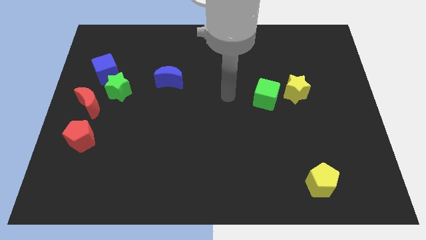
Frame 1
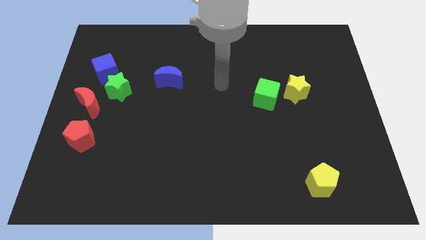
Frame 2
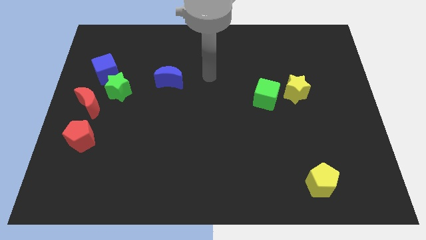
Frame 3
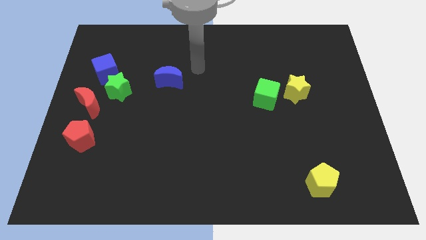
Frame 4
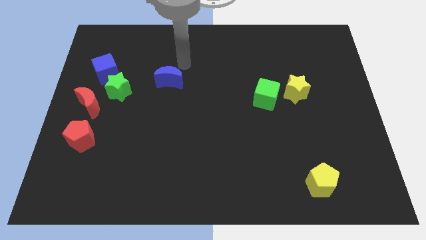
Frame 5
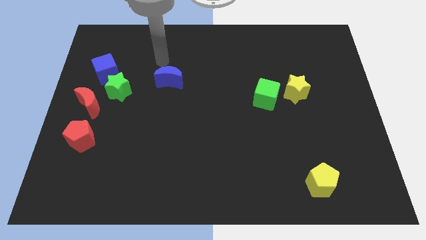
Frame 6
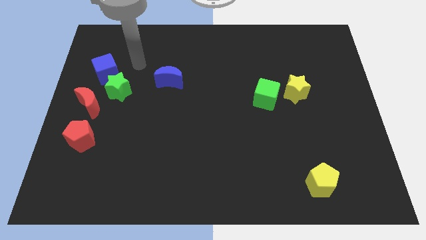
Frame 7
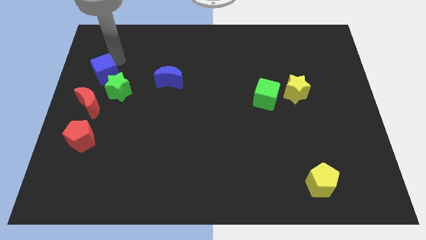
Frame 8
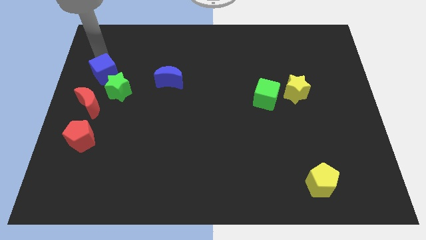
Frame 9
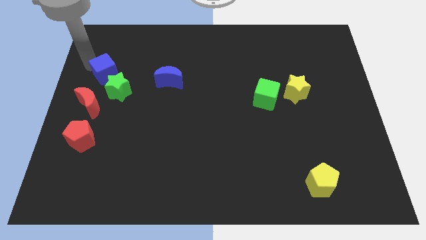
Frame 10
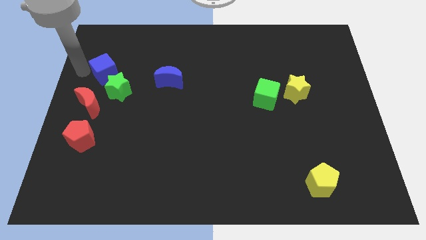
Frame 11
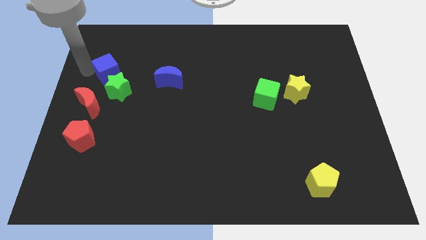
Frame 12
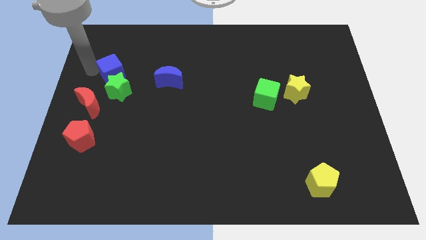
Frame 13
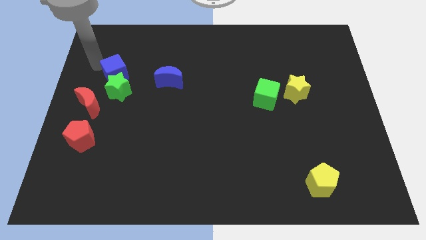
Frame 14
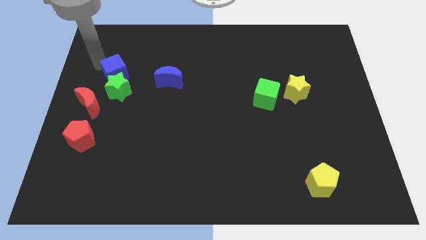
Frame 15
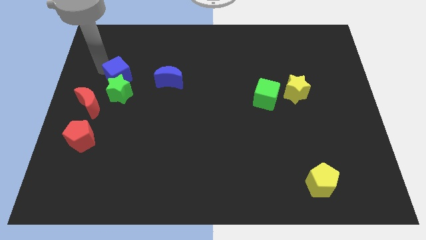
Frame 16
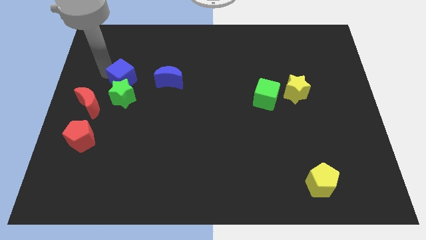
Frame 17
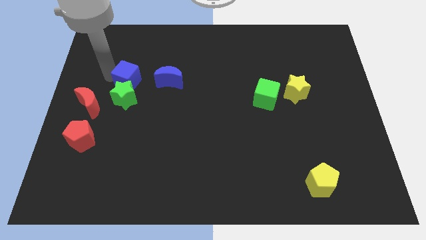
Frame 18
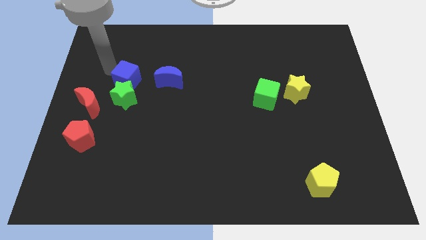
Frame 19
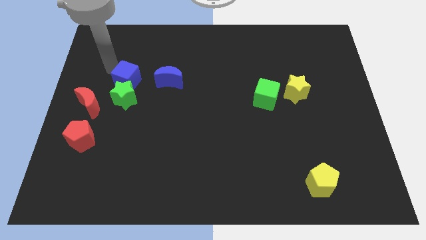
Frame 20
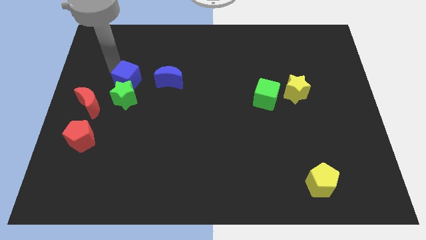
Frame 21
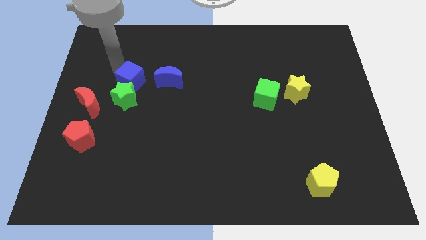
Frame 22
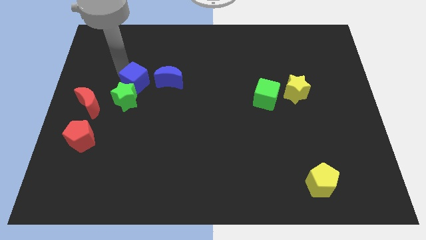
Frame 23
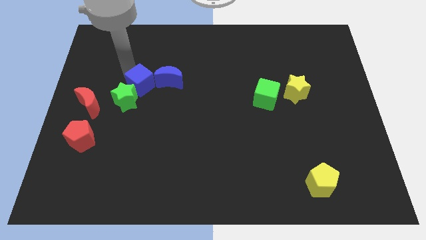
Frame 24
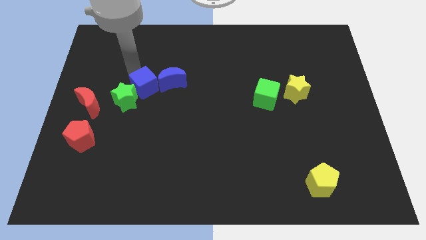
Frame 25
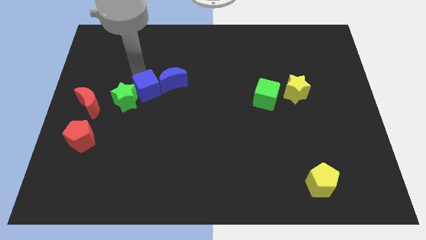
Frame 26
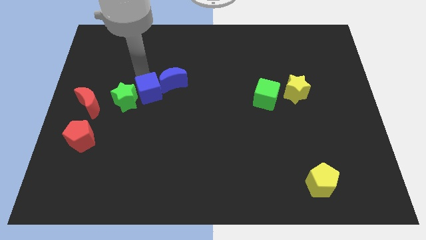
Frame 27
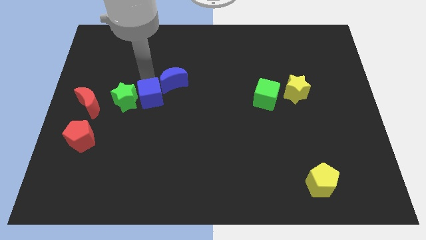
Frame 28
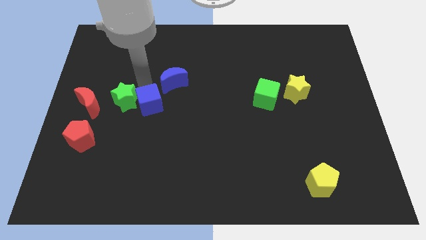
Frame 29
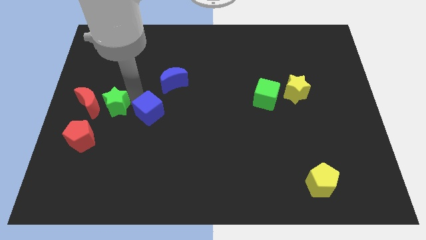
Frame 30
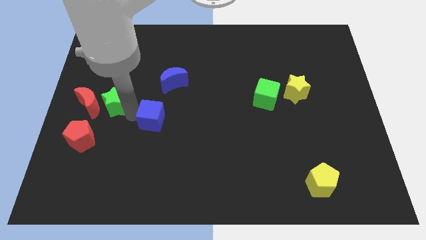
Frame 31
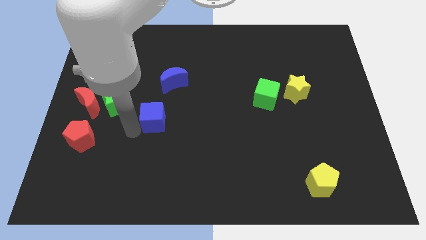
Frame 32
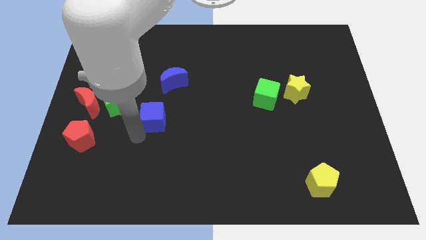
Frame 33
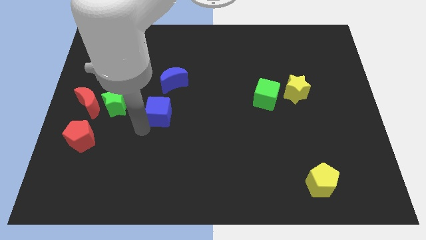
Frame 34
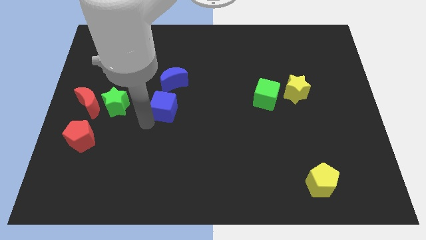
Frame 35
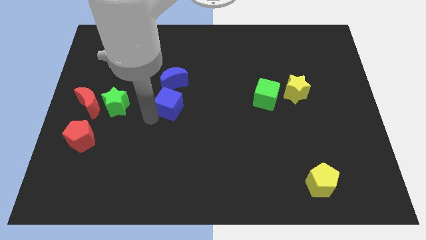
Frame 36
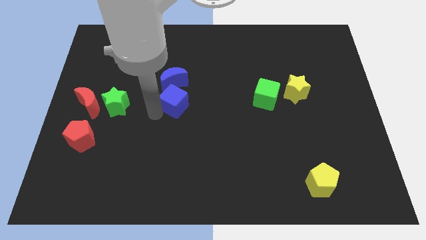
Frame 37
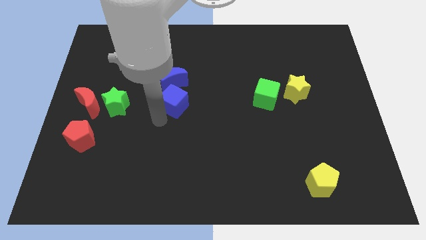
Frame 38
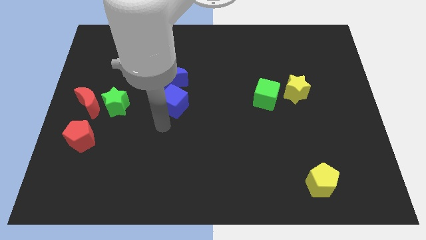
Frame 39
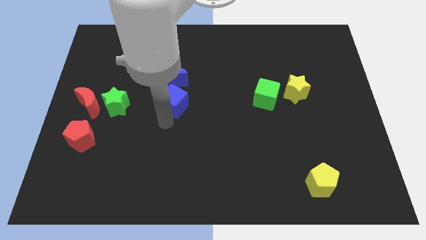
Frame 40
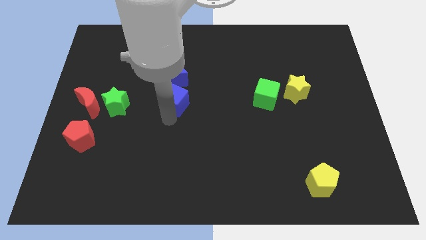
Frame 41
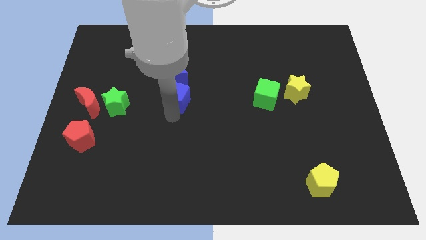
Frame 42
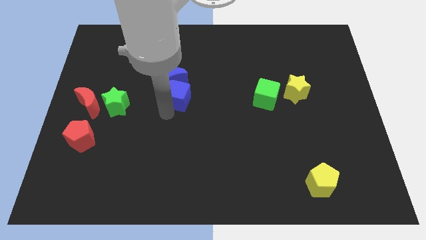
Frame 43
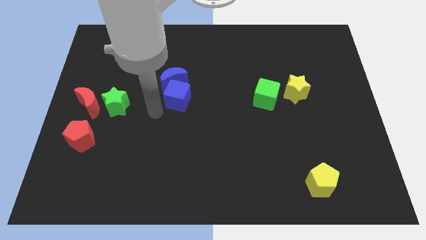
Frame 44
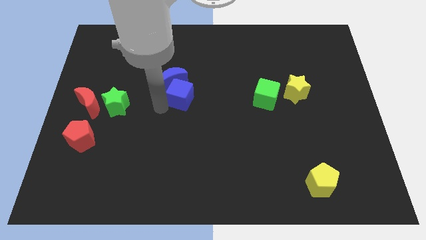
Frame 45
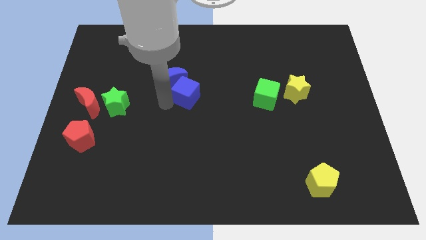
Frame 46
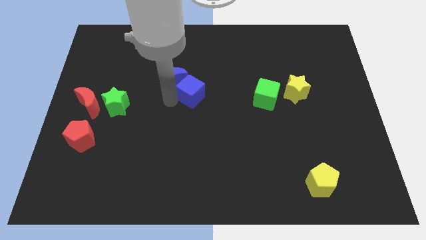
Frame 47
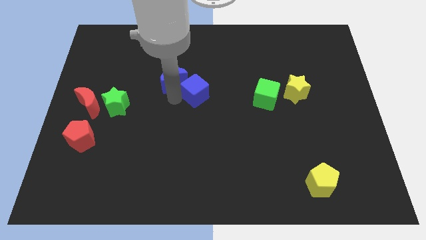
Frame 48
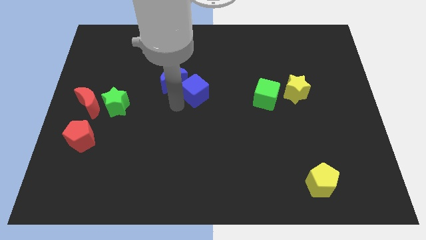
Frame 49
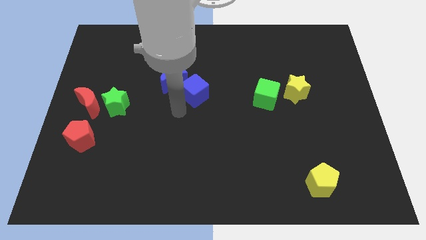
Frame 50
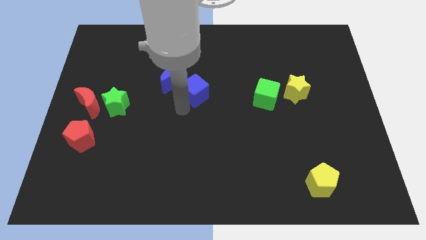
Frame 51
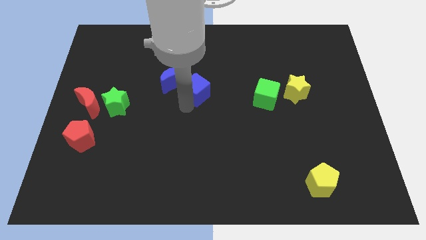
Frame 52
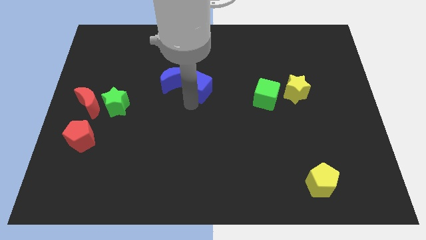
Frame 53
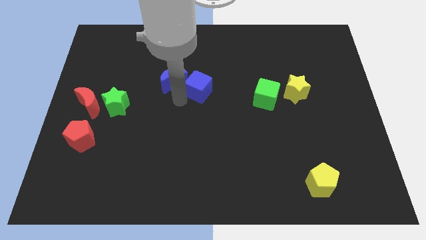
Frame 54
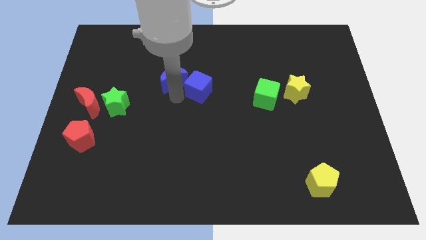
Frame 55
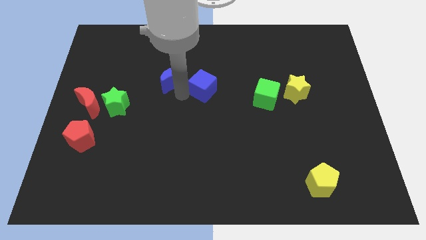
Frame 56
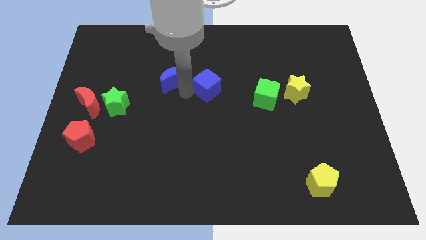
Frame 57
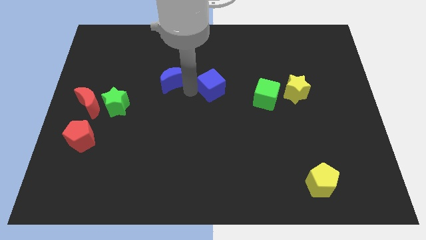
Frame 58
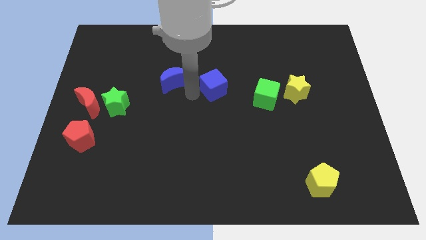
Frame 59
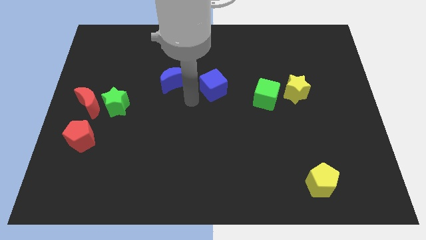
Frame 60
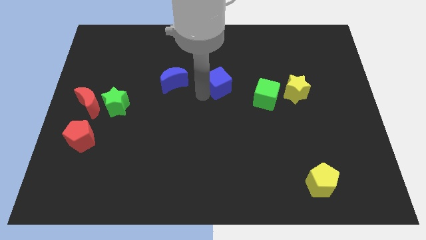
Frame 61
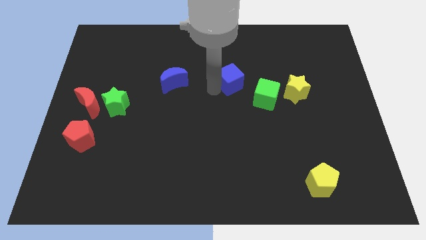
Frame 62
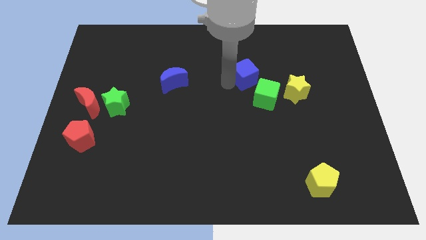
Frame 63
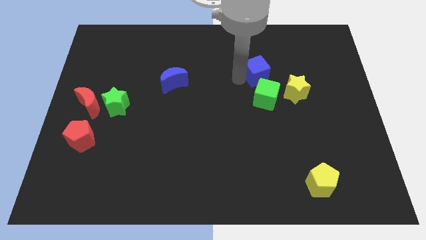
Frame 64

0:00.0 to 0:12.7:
push the blue cube to the top left of the yellow star
